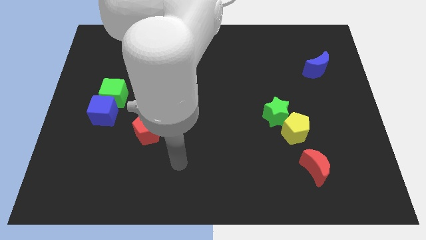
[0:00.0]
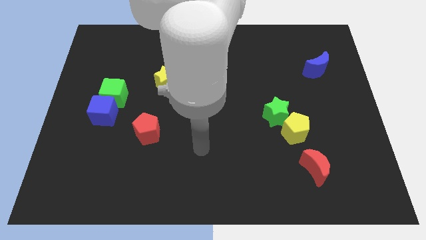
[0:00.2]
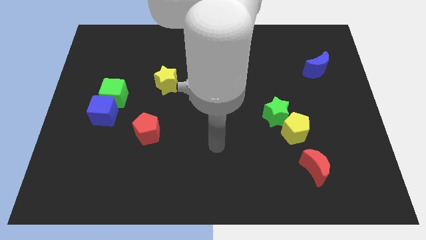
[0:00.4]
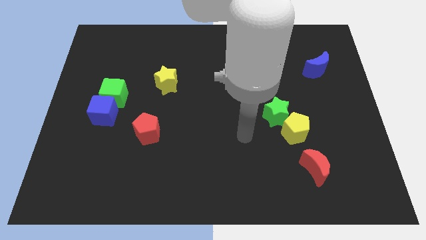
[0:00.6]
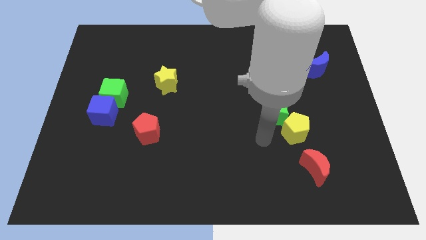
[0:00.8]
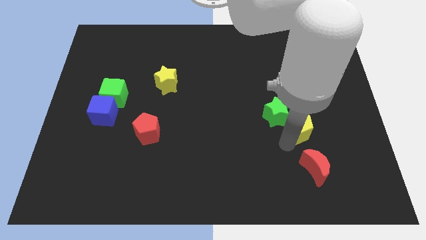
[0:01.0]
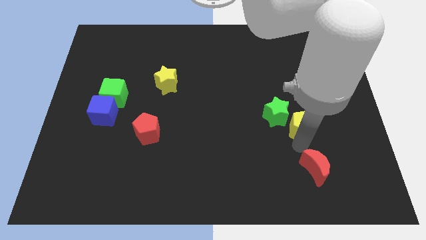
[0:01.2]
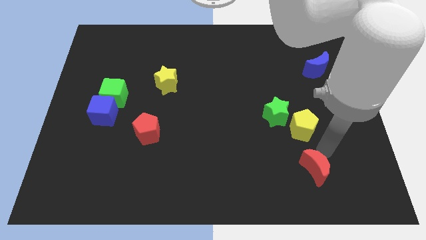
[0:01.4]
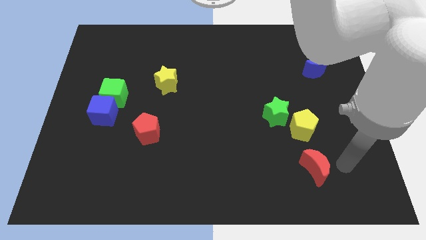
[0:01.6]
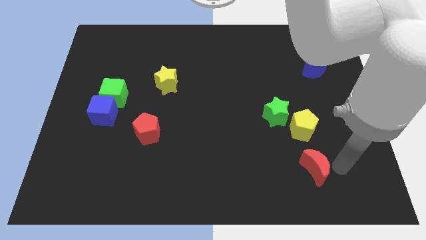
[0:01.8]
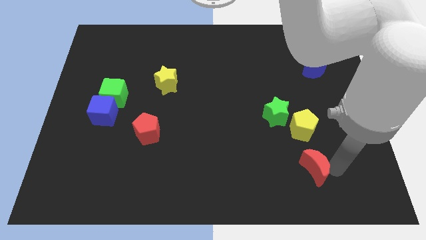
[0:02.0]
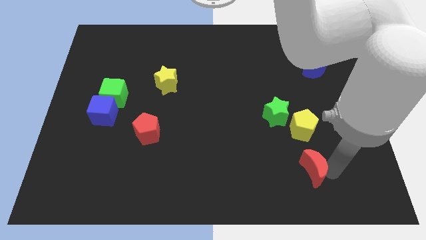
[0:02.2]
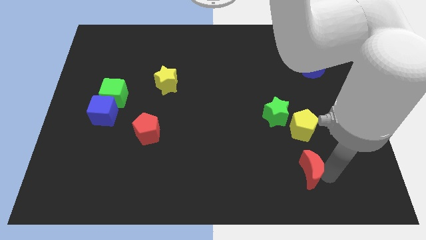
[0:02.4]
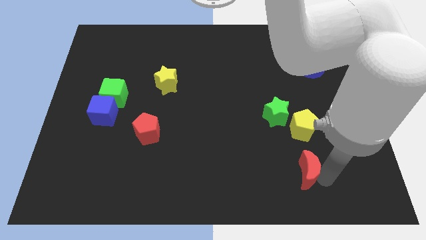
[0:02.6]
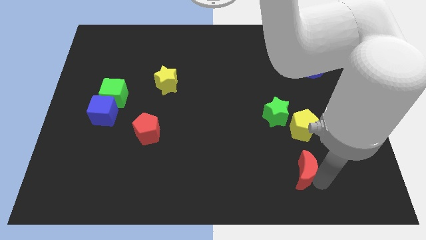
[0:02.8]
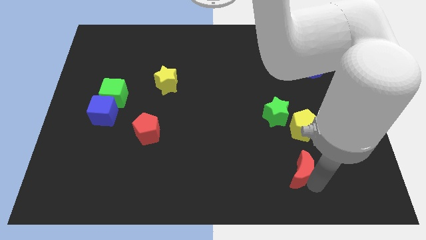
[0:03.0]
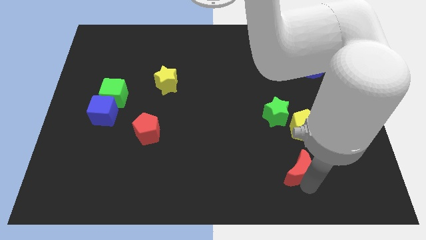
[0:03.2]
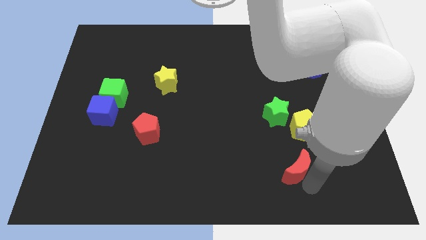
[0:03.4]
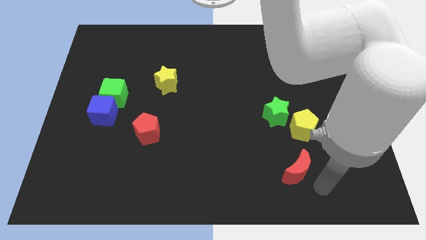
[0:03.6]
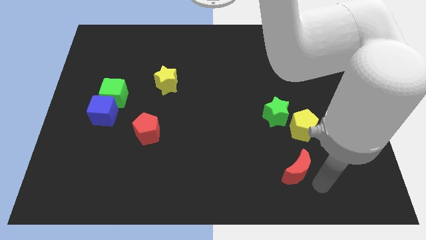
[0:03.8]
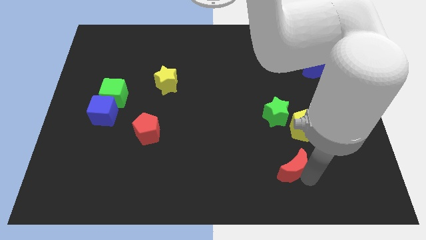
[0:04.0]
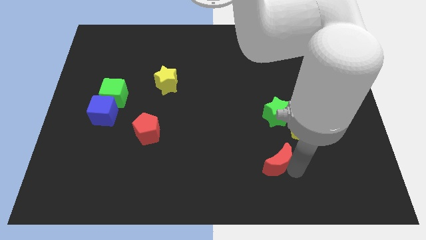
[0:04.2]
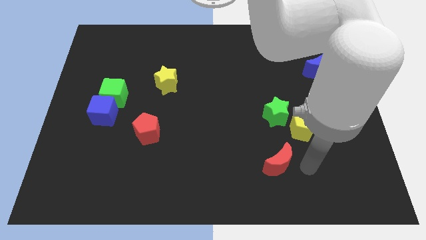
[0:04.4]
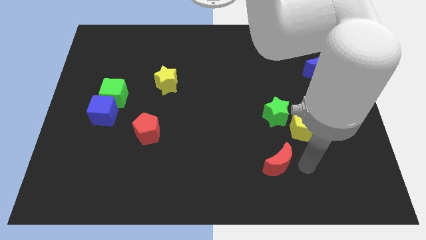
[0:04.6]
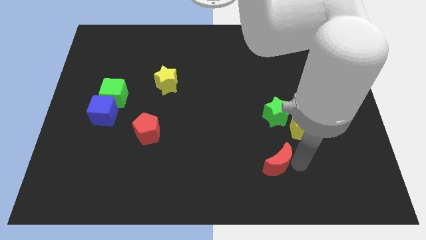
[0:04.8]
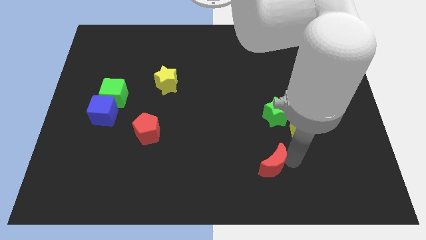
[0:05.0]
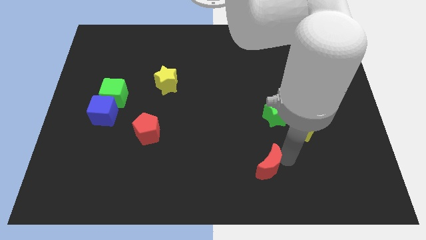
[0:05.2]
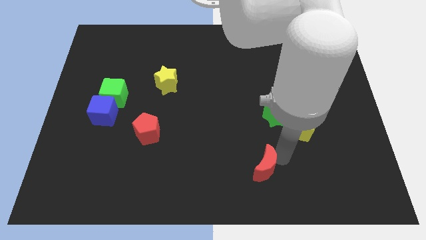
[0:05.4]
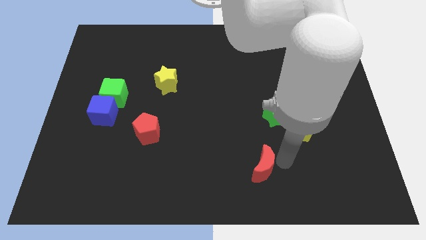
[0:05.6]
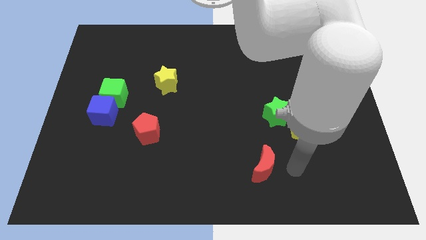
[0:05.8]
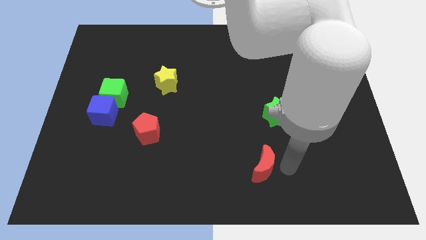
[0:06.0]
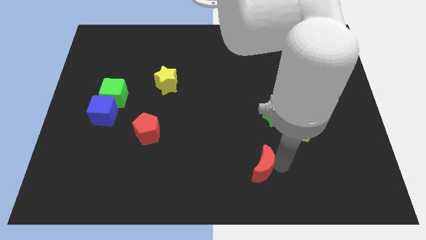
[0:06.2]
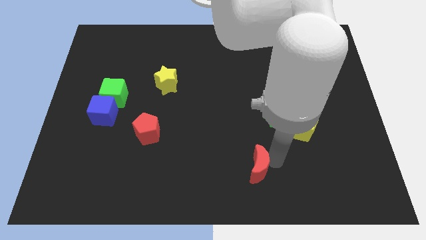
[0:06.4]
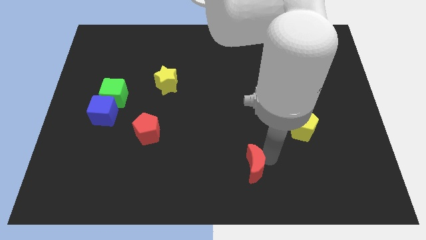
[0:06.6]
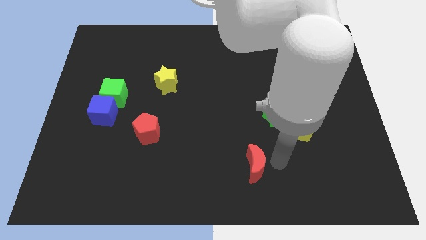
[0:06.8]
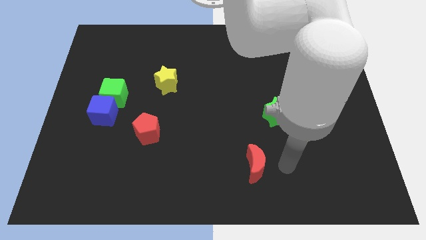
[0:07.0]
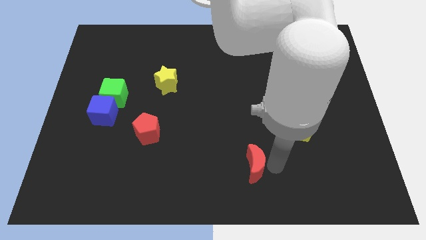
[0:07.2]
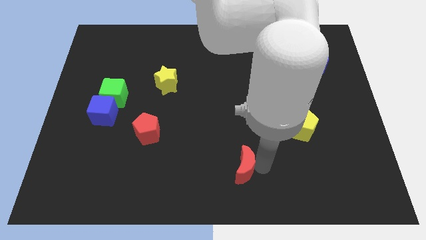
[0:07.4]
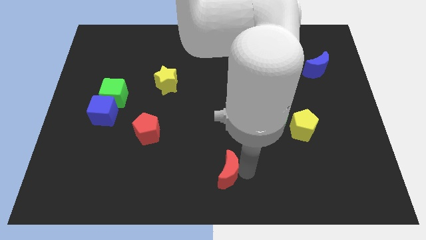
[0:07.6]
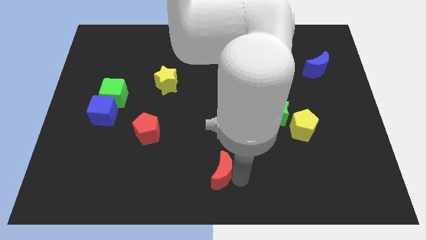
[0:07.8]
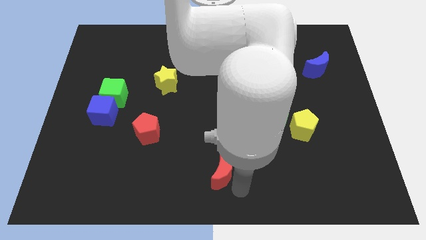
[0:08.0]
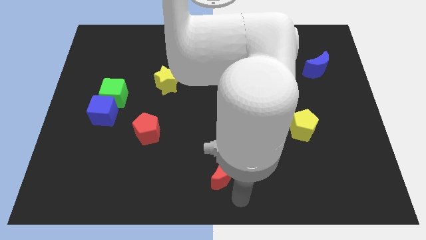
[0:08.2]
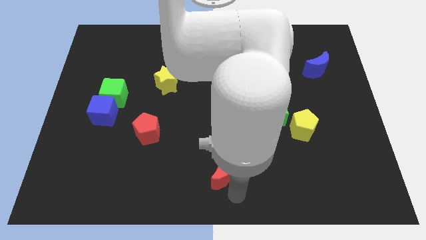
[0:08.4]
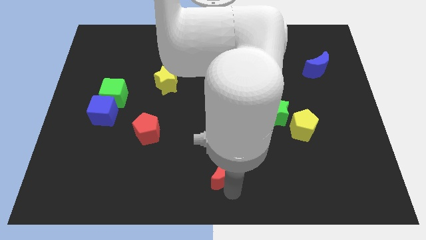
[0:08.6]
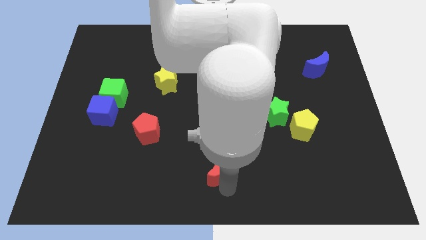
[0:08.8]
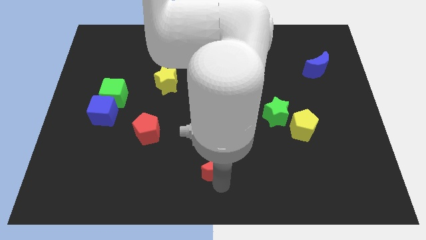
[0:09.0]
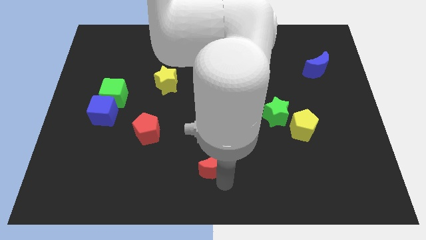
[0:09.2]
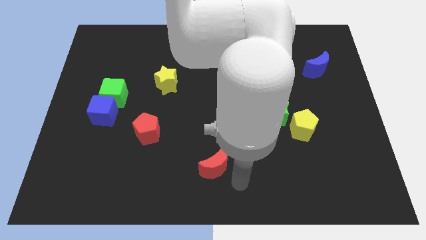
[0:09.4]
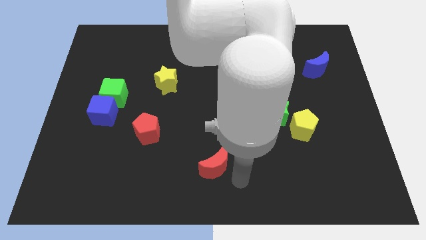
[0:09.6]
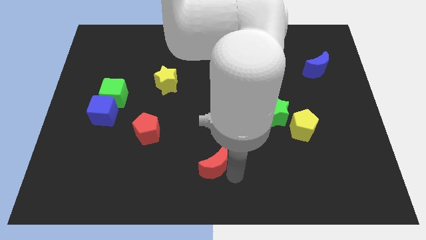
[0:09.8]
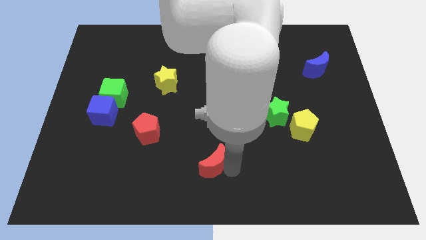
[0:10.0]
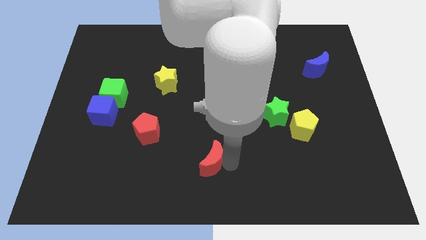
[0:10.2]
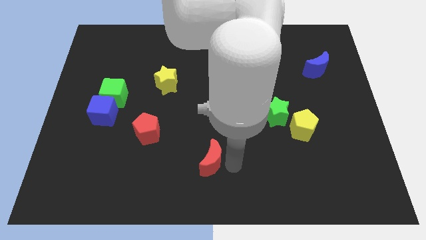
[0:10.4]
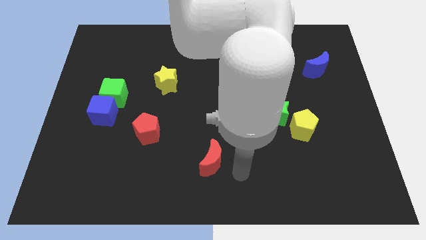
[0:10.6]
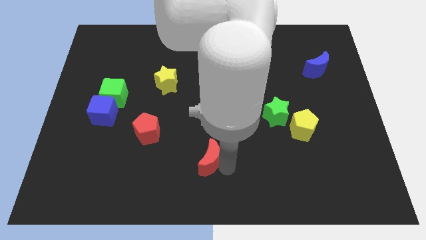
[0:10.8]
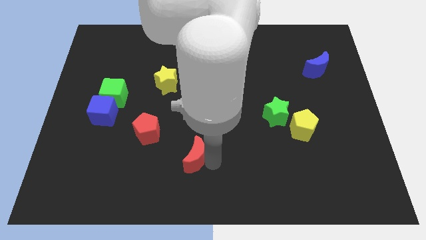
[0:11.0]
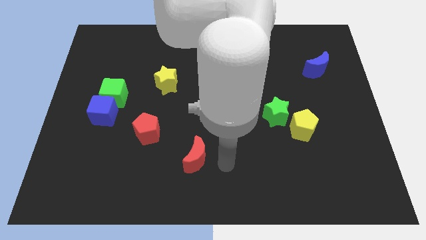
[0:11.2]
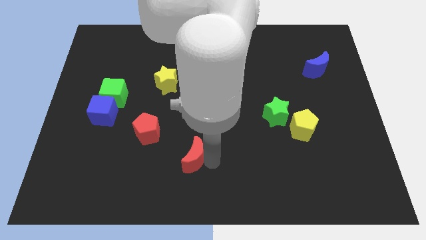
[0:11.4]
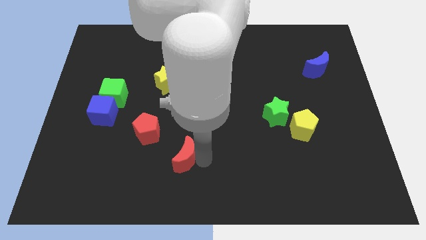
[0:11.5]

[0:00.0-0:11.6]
push the red moon to the bottom right side of the red pentagon

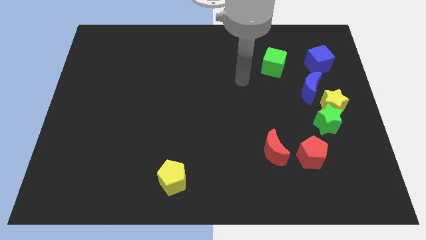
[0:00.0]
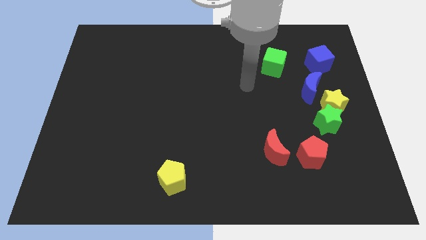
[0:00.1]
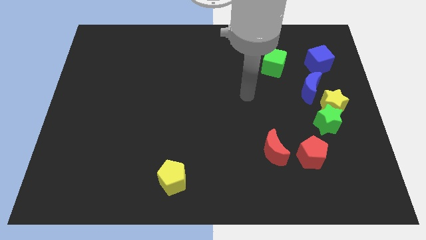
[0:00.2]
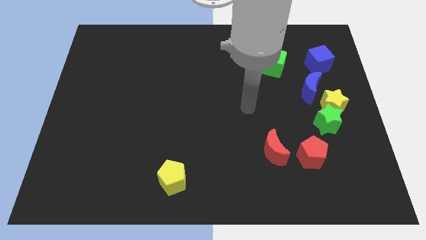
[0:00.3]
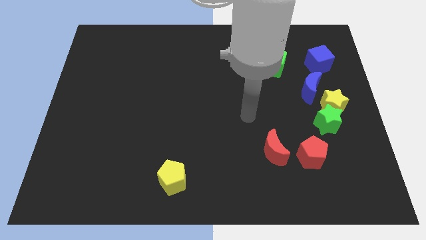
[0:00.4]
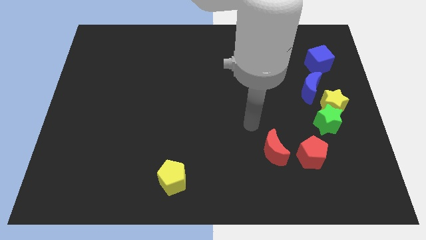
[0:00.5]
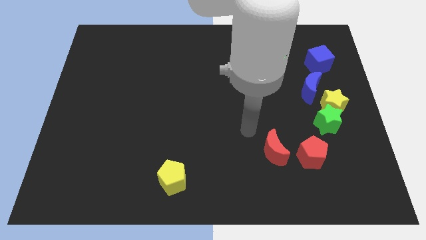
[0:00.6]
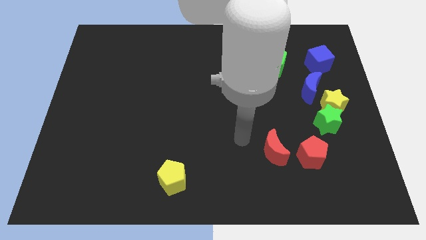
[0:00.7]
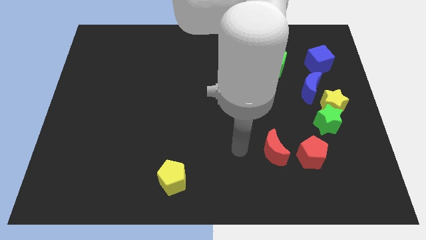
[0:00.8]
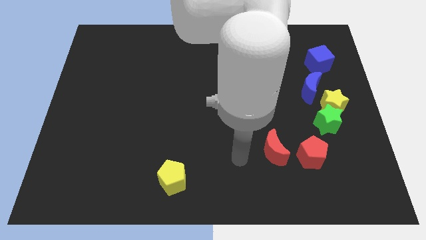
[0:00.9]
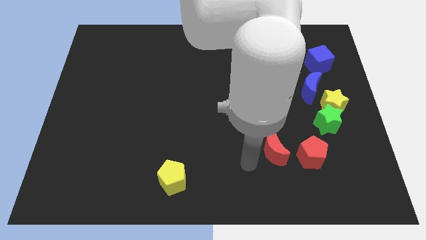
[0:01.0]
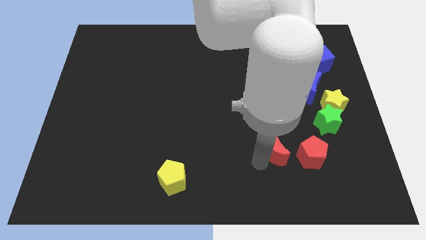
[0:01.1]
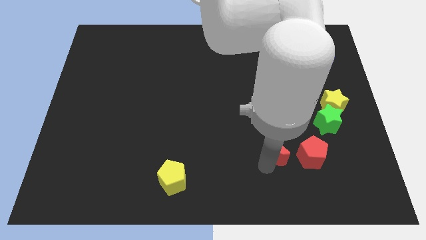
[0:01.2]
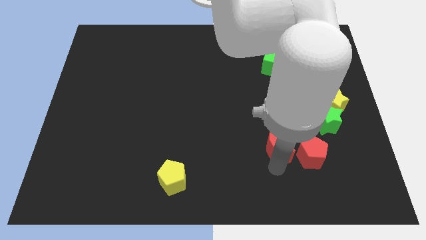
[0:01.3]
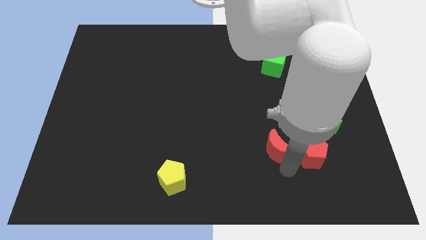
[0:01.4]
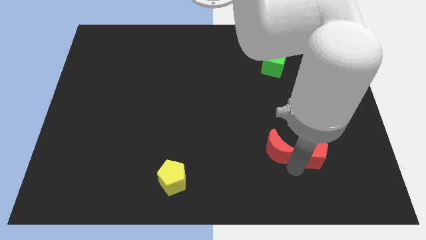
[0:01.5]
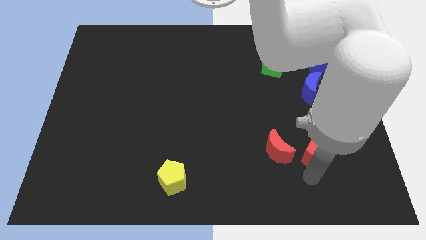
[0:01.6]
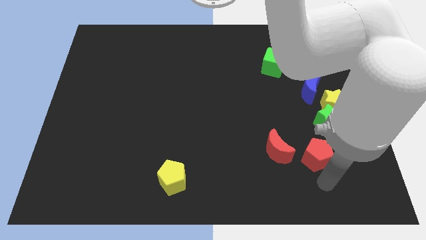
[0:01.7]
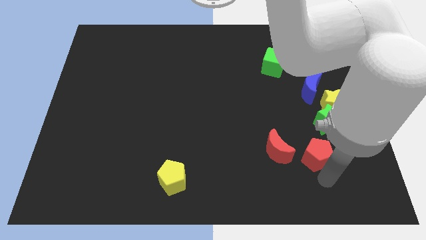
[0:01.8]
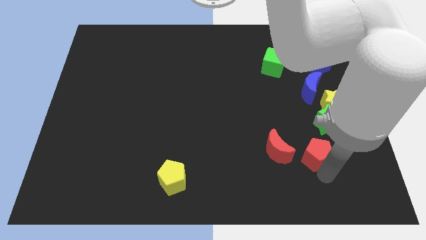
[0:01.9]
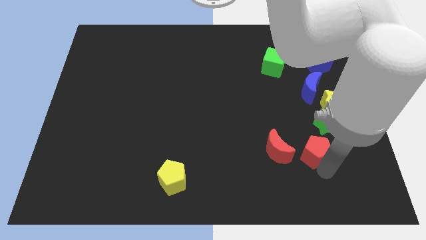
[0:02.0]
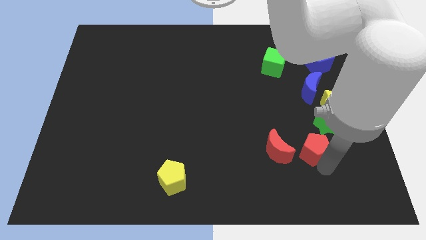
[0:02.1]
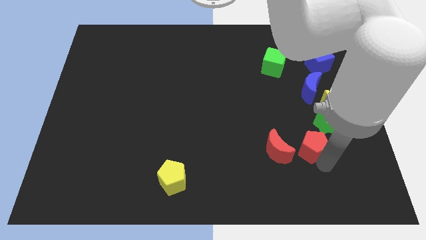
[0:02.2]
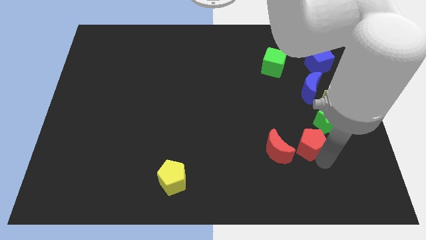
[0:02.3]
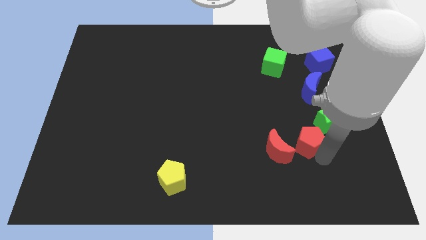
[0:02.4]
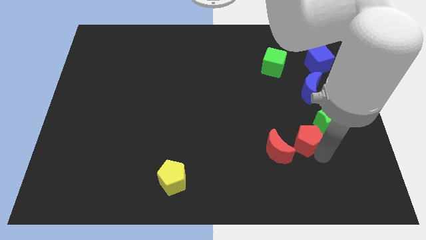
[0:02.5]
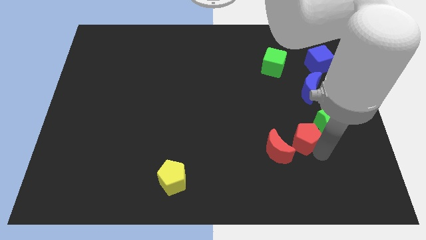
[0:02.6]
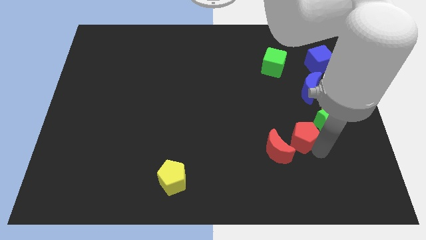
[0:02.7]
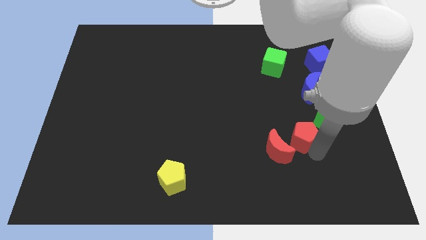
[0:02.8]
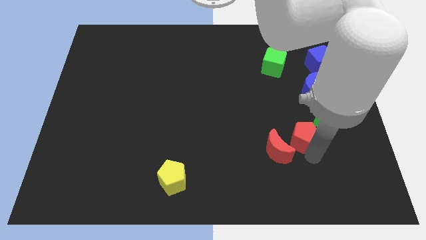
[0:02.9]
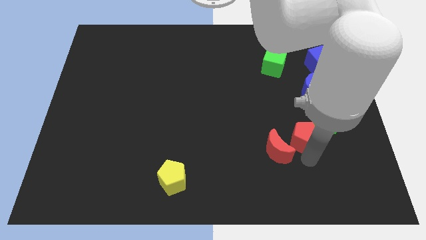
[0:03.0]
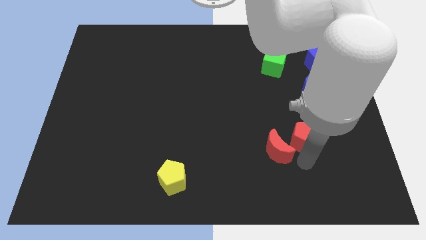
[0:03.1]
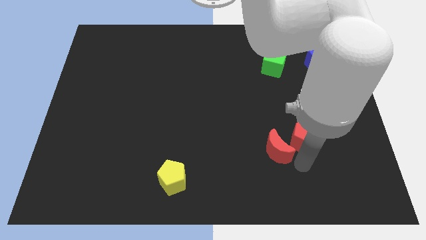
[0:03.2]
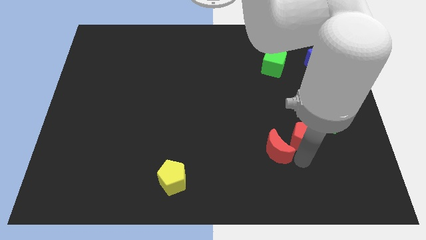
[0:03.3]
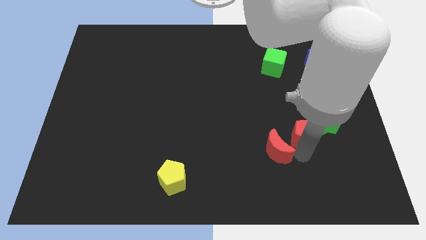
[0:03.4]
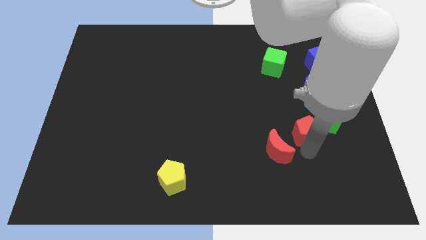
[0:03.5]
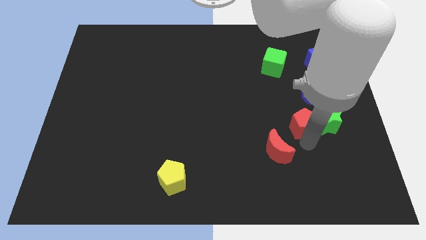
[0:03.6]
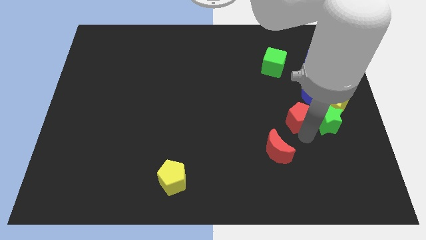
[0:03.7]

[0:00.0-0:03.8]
slide the red pentagon to the bottom left side of the blue moon
